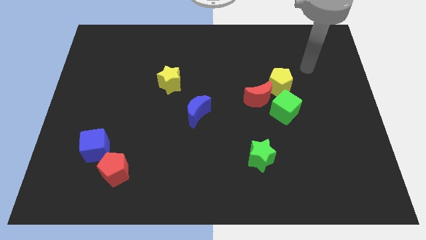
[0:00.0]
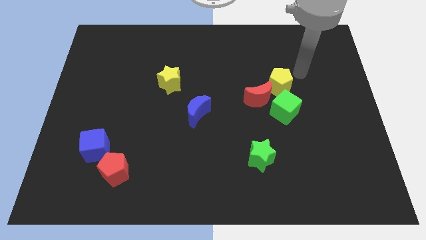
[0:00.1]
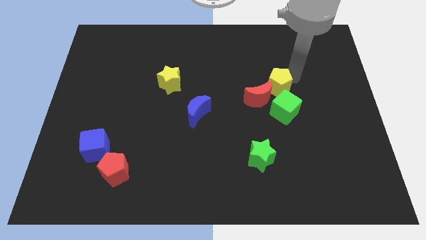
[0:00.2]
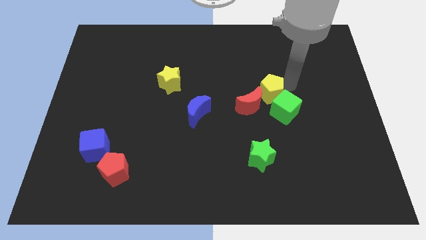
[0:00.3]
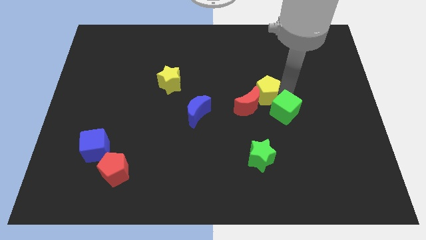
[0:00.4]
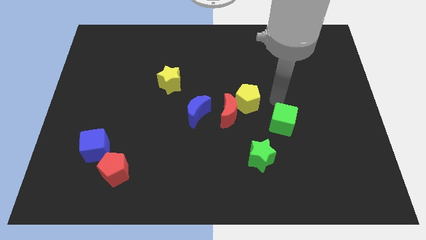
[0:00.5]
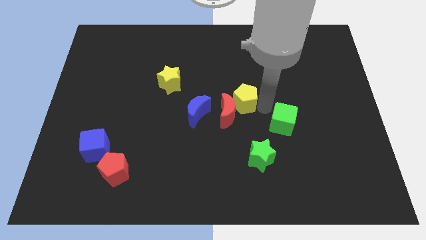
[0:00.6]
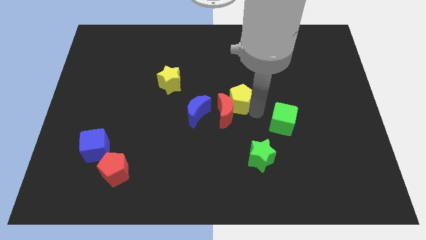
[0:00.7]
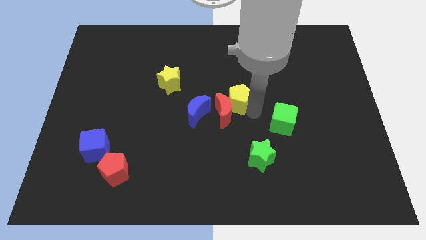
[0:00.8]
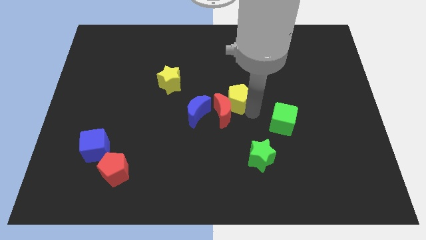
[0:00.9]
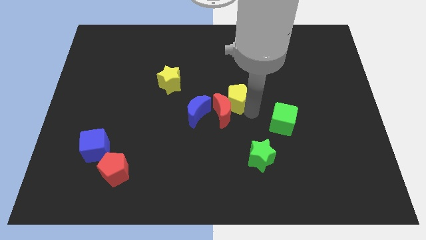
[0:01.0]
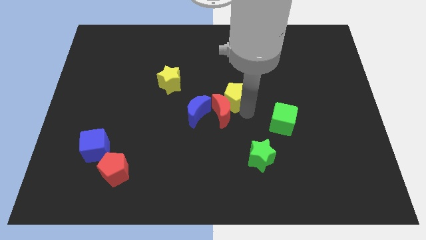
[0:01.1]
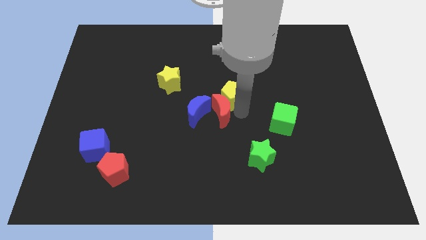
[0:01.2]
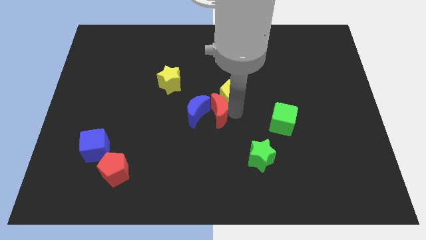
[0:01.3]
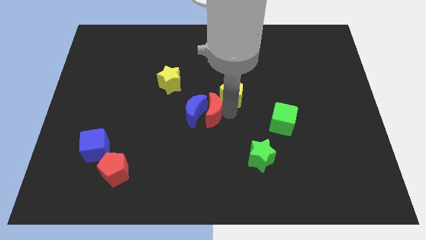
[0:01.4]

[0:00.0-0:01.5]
move the red moon away from the green cube and yellow pentagon

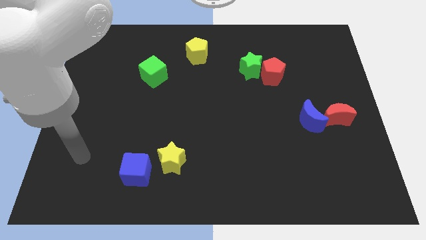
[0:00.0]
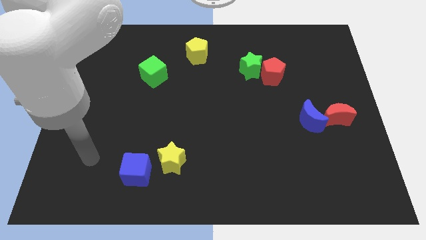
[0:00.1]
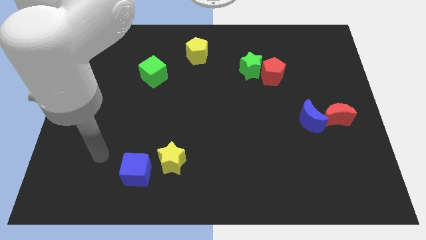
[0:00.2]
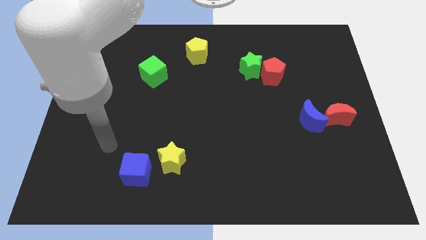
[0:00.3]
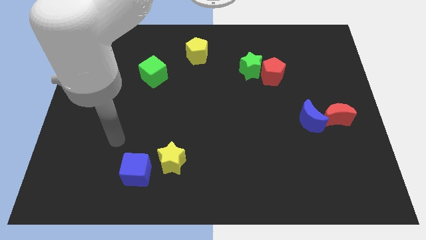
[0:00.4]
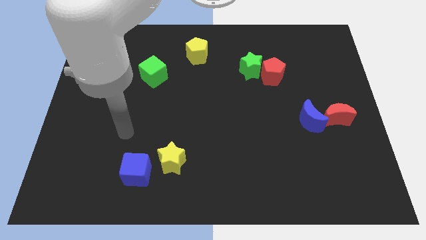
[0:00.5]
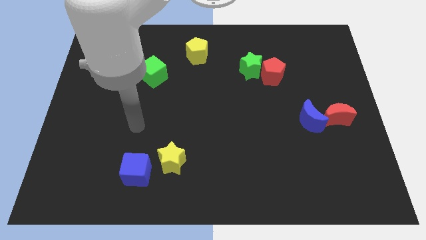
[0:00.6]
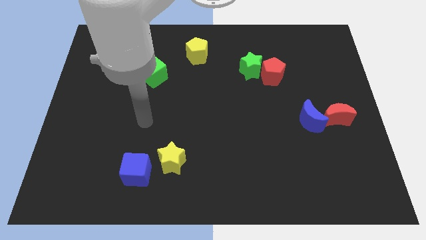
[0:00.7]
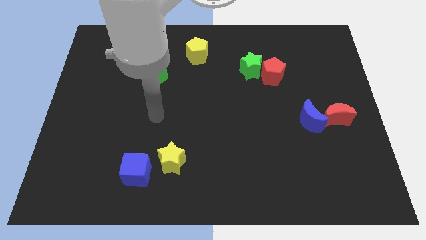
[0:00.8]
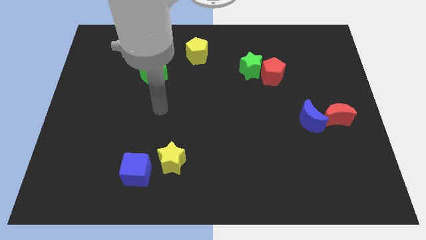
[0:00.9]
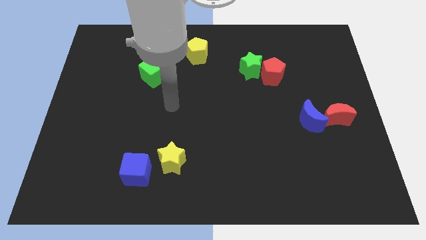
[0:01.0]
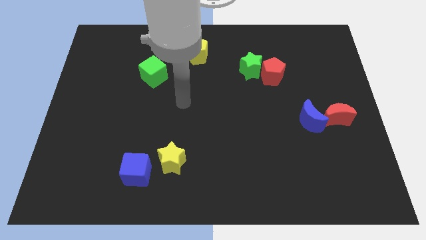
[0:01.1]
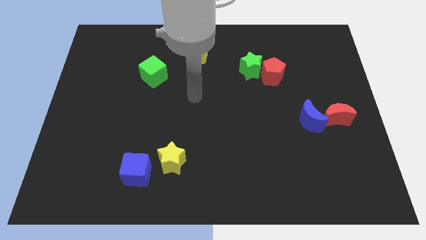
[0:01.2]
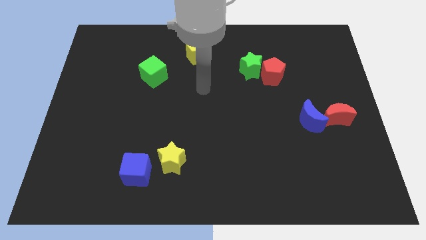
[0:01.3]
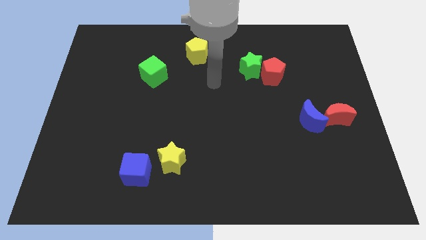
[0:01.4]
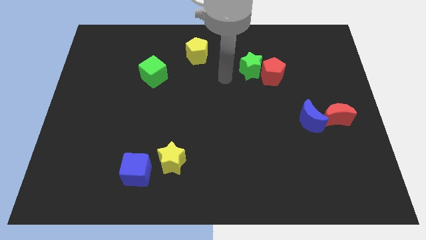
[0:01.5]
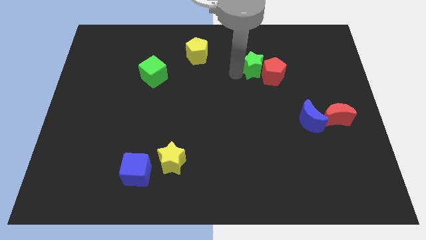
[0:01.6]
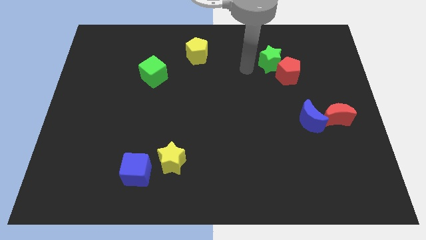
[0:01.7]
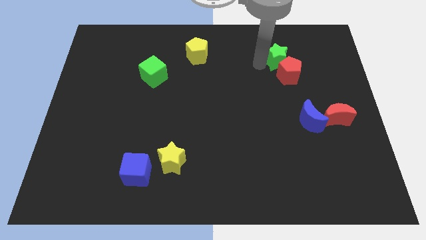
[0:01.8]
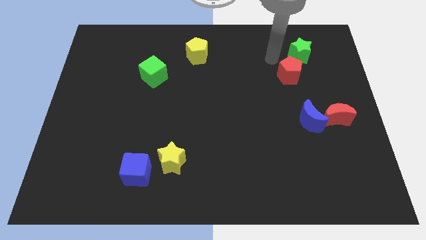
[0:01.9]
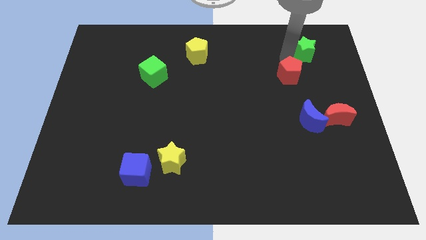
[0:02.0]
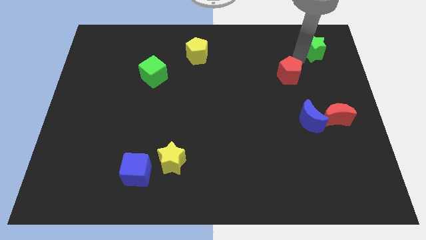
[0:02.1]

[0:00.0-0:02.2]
pull the red pentagon apart from the green star

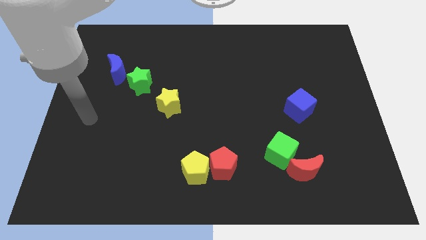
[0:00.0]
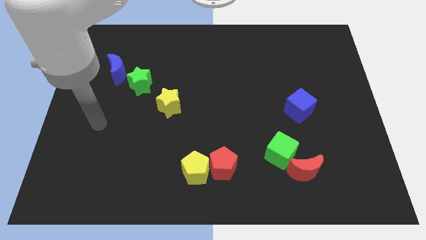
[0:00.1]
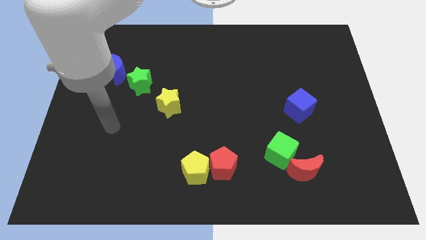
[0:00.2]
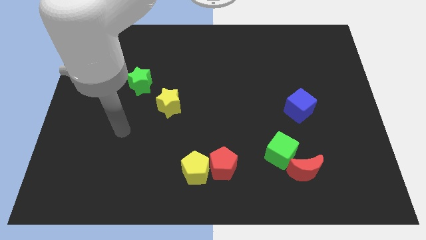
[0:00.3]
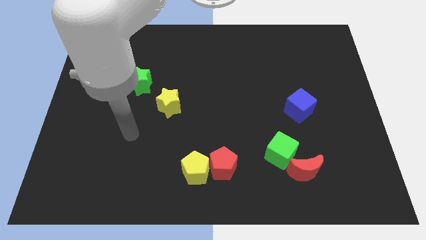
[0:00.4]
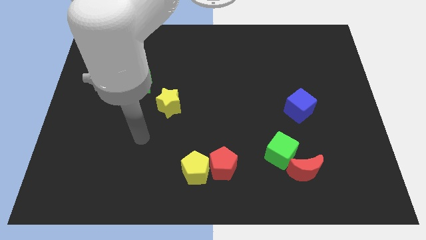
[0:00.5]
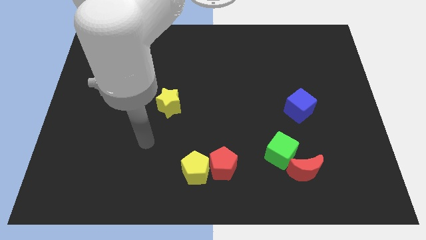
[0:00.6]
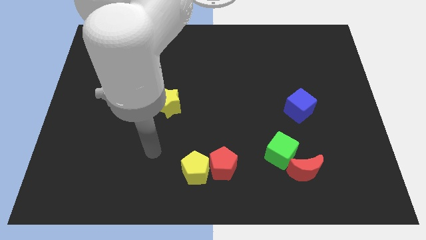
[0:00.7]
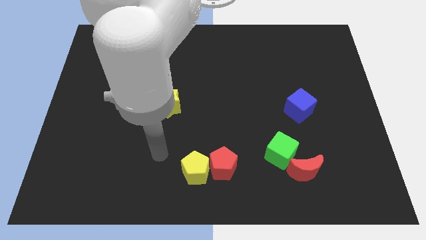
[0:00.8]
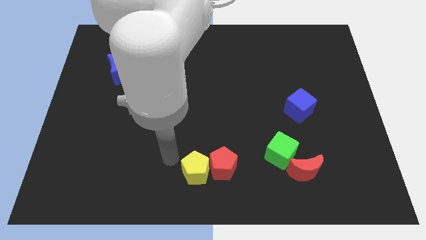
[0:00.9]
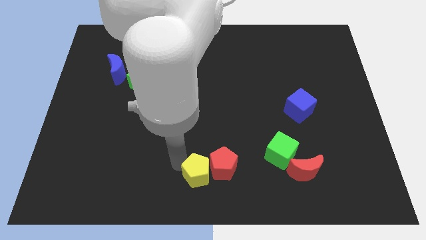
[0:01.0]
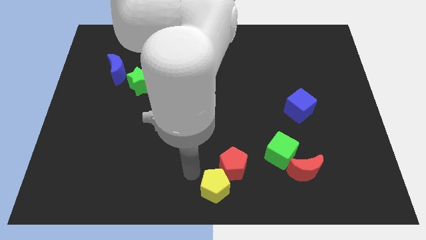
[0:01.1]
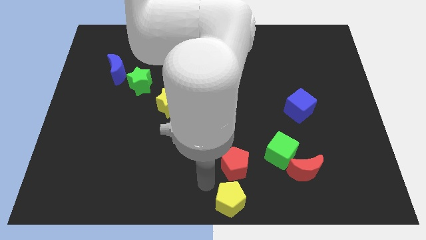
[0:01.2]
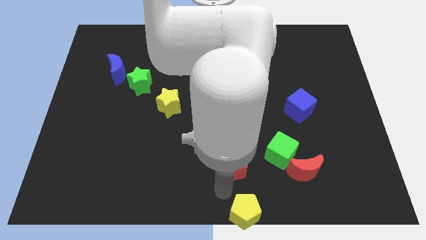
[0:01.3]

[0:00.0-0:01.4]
move the red pentagon away from the yellow pentagon

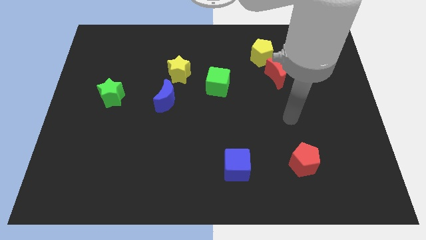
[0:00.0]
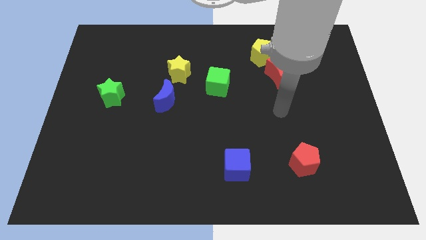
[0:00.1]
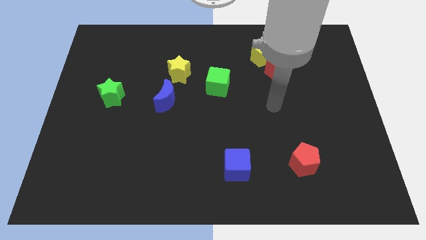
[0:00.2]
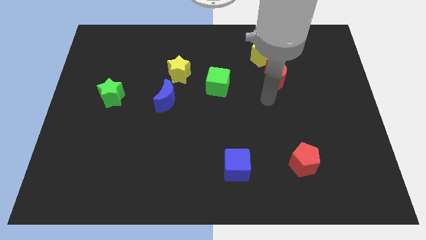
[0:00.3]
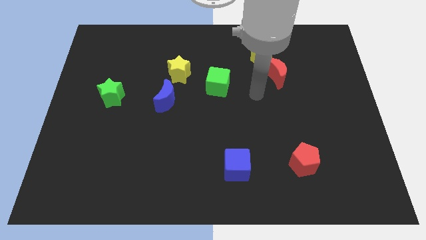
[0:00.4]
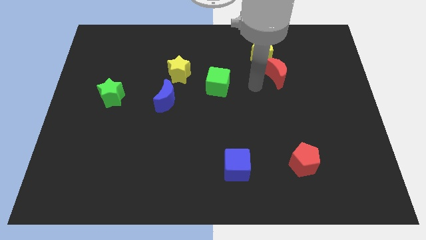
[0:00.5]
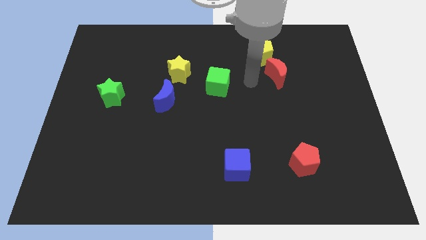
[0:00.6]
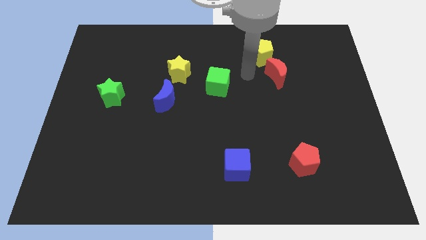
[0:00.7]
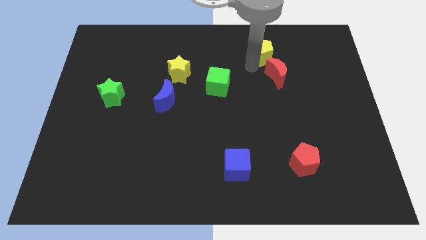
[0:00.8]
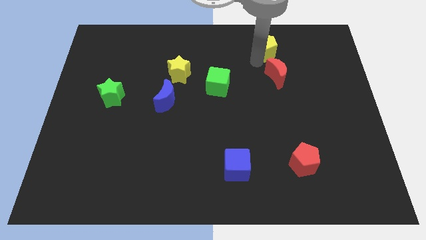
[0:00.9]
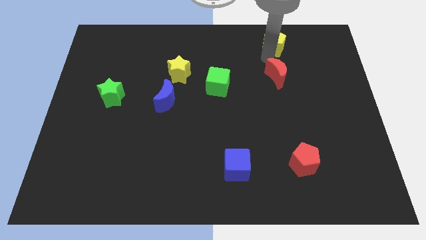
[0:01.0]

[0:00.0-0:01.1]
separate the red moon from the yellow pentagon

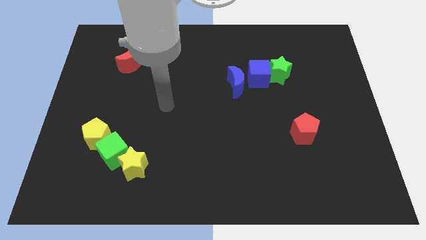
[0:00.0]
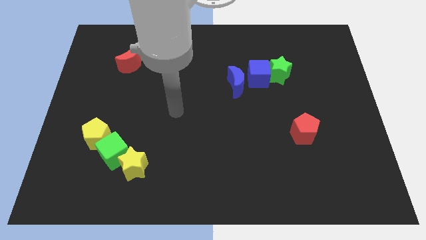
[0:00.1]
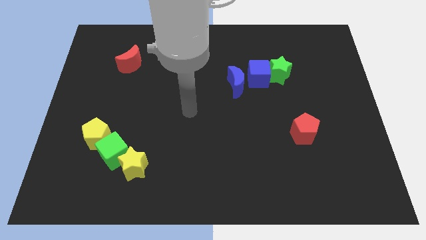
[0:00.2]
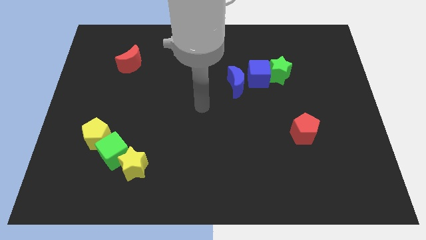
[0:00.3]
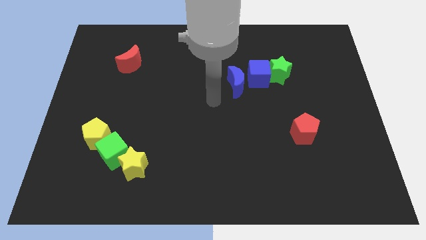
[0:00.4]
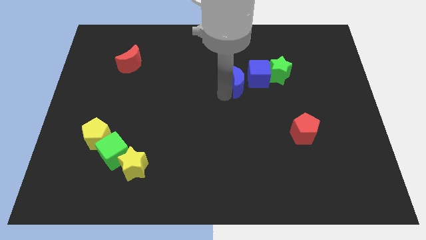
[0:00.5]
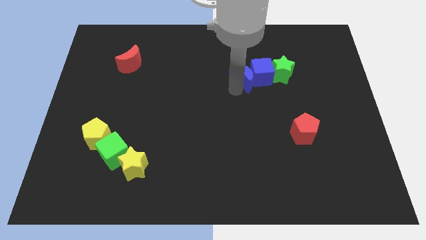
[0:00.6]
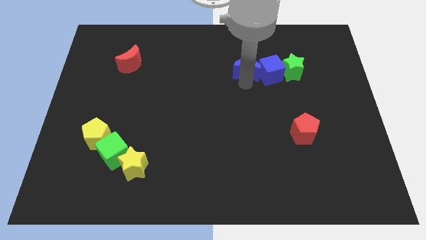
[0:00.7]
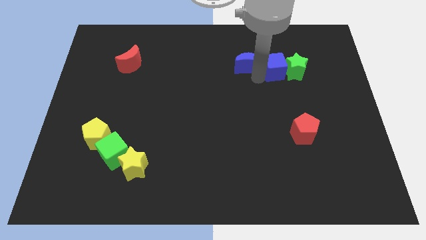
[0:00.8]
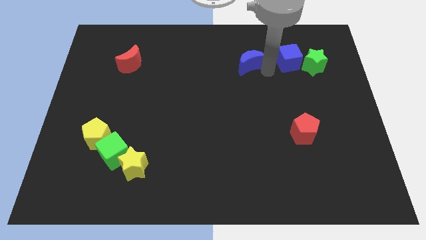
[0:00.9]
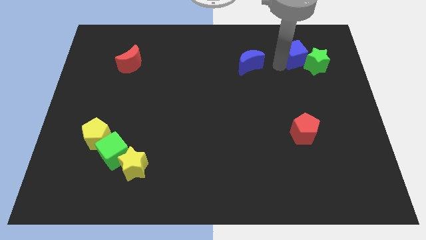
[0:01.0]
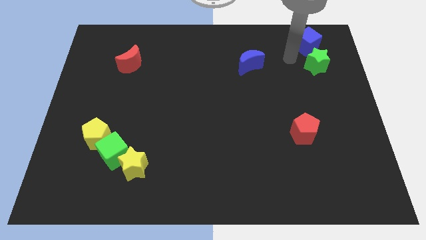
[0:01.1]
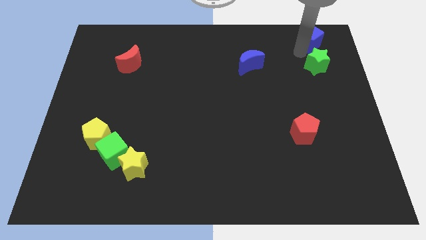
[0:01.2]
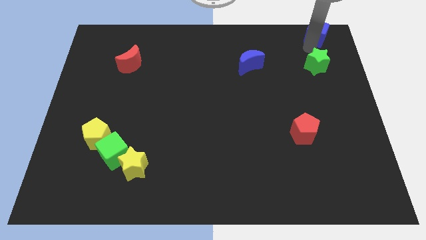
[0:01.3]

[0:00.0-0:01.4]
separate the green star from the blue cube

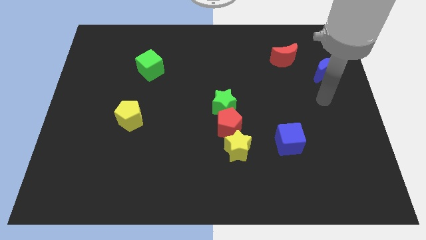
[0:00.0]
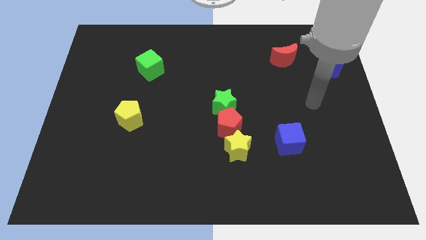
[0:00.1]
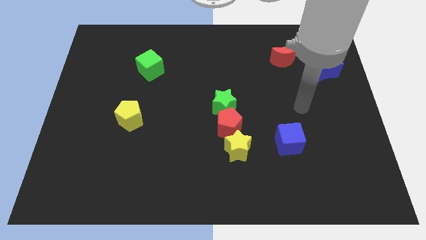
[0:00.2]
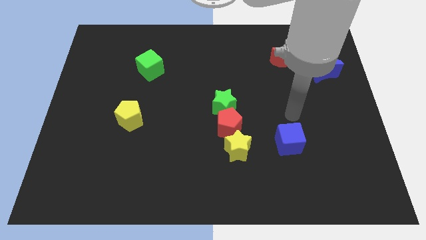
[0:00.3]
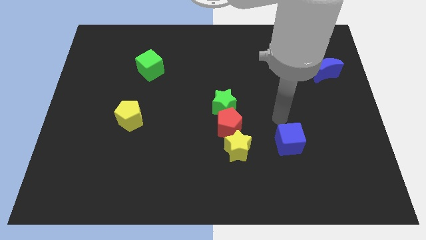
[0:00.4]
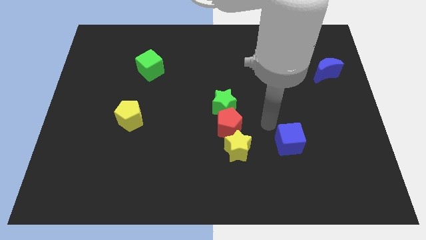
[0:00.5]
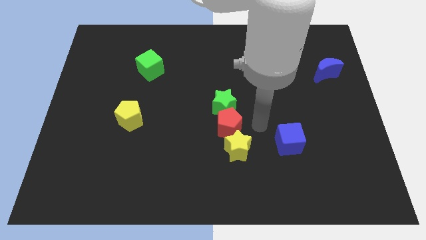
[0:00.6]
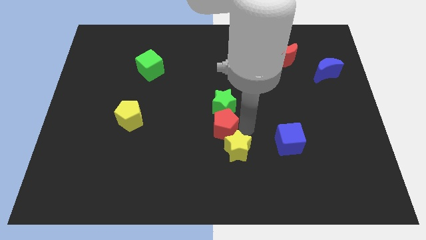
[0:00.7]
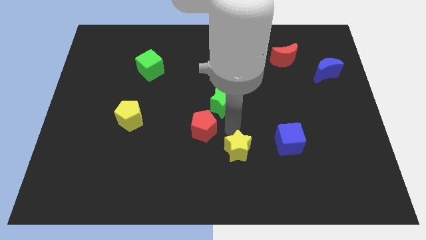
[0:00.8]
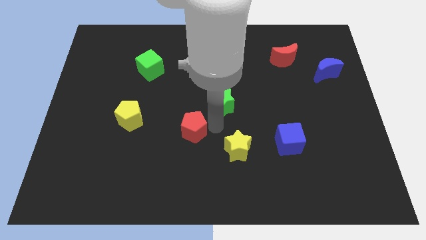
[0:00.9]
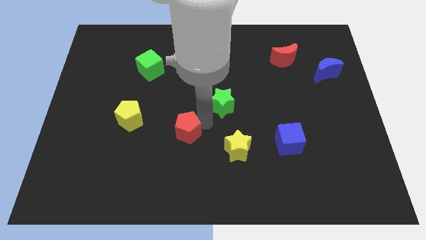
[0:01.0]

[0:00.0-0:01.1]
pull the green star apart from the red pentagon

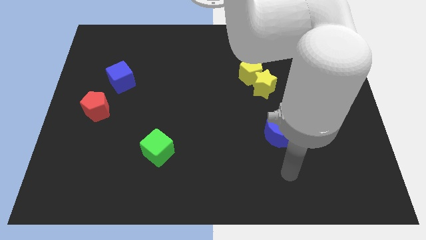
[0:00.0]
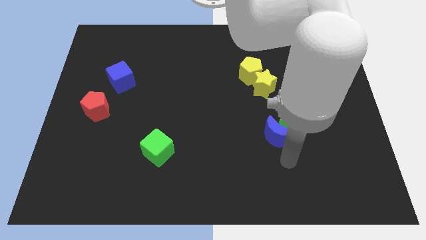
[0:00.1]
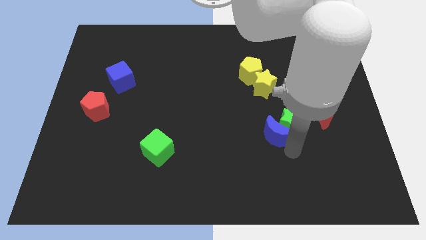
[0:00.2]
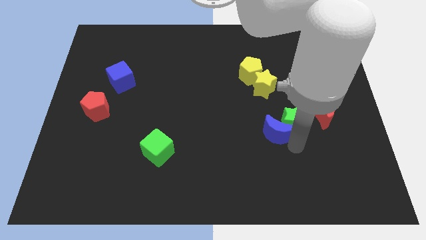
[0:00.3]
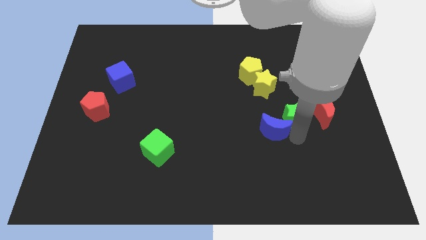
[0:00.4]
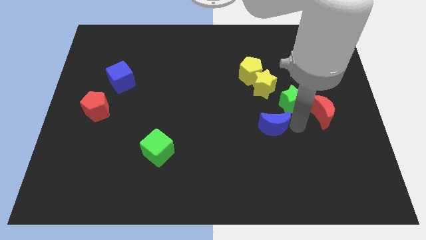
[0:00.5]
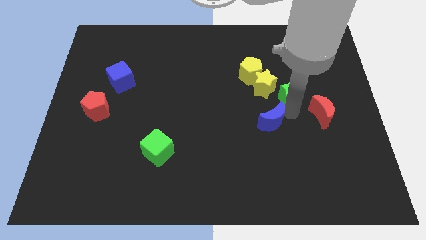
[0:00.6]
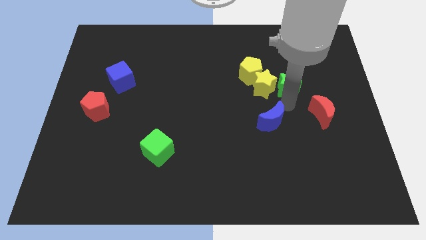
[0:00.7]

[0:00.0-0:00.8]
pull the blue moon apart from the green star

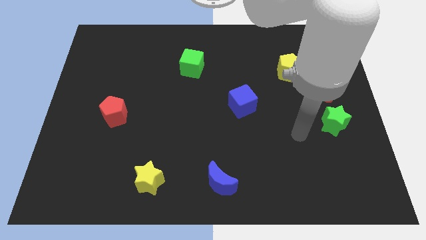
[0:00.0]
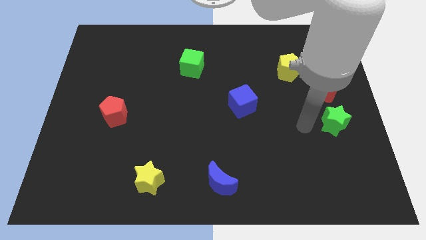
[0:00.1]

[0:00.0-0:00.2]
separate the yellow pentagon from the red moon
